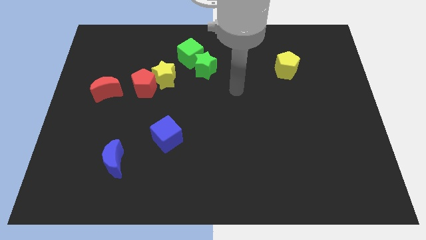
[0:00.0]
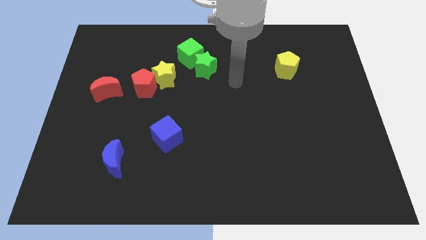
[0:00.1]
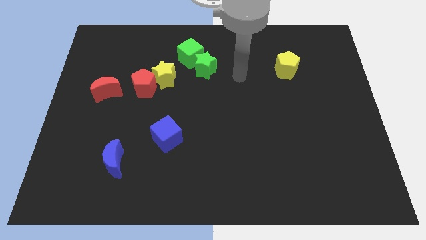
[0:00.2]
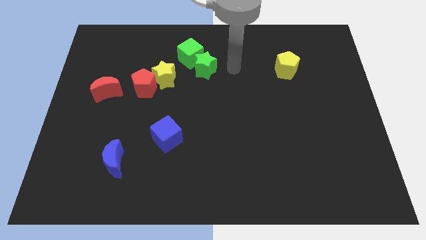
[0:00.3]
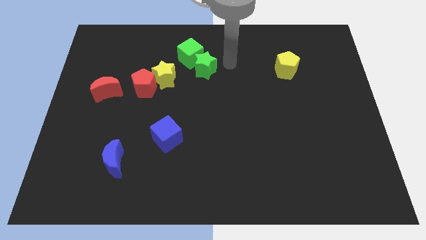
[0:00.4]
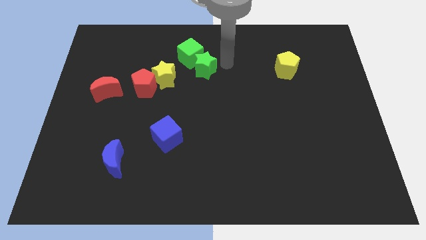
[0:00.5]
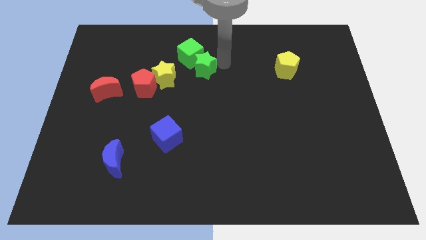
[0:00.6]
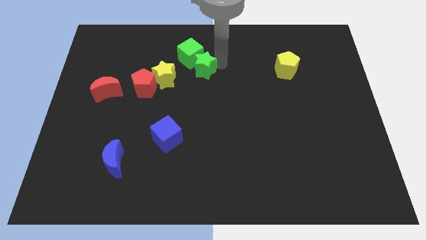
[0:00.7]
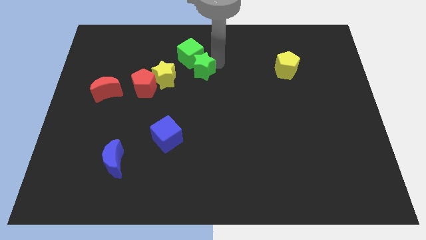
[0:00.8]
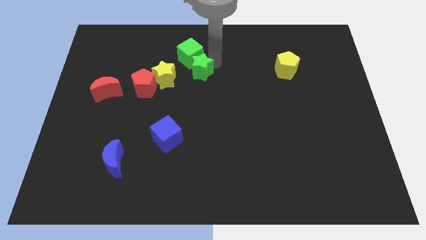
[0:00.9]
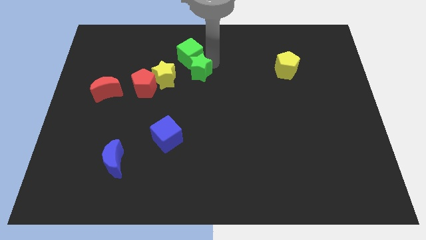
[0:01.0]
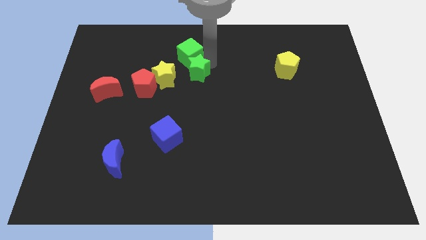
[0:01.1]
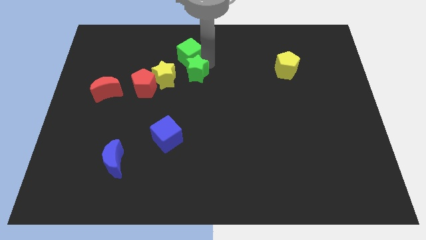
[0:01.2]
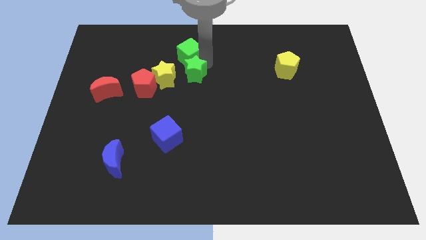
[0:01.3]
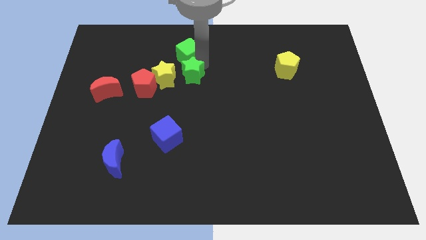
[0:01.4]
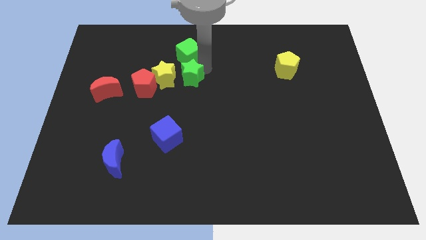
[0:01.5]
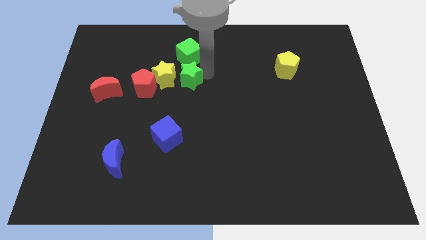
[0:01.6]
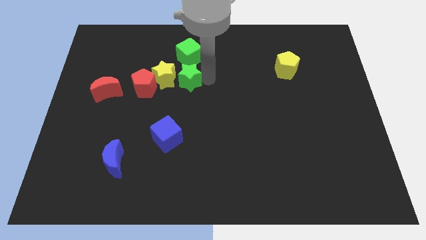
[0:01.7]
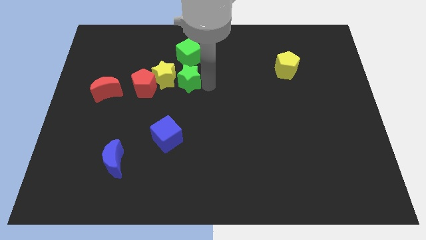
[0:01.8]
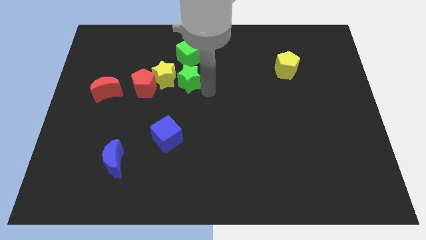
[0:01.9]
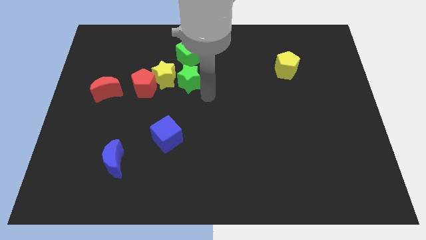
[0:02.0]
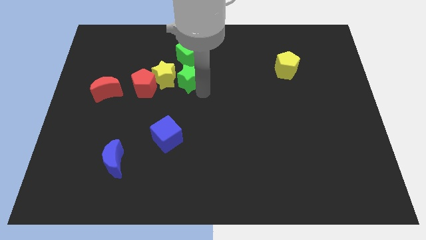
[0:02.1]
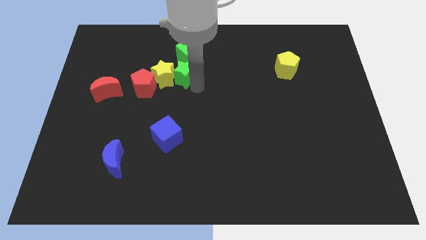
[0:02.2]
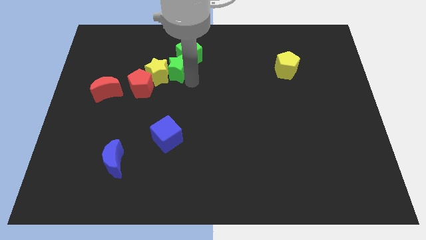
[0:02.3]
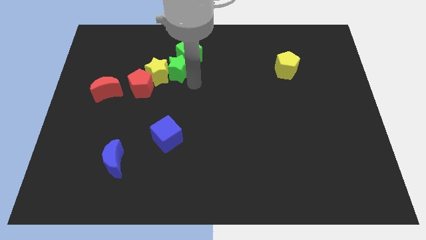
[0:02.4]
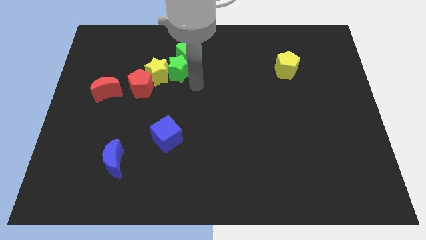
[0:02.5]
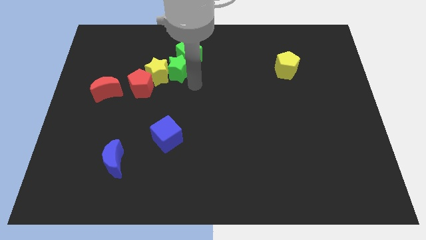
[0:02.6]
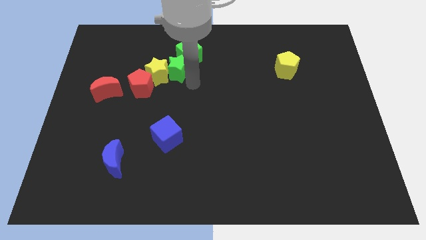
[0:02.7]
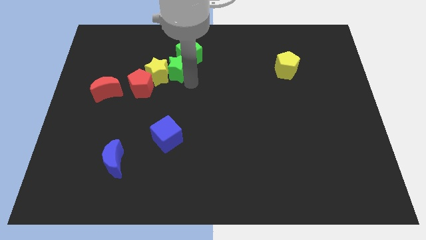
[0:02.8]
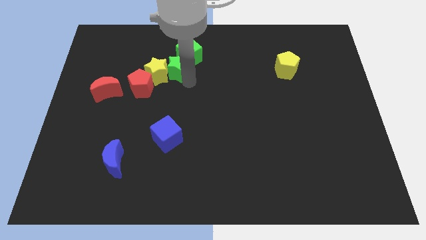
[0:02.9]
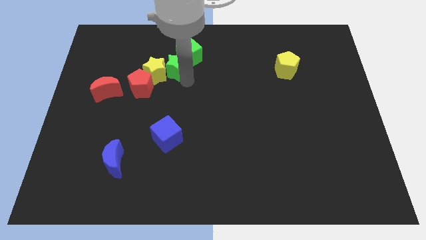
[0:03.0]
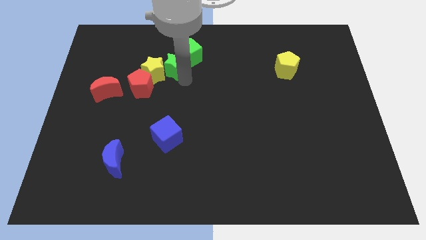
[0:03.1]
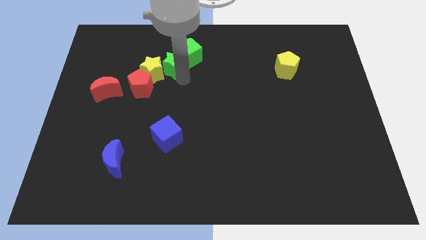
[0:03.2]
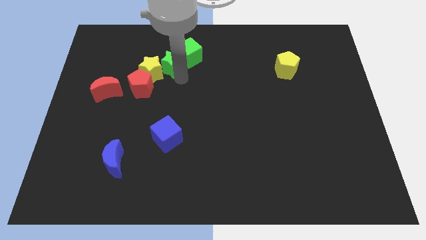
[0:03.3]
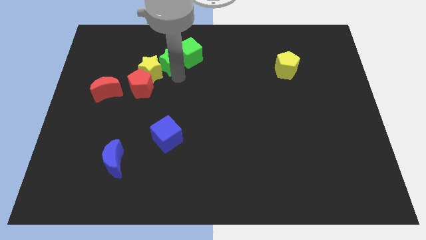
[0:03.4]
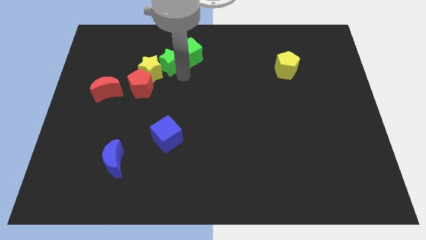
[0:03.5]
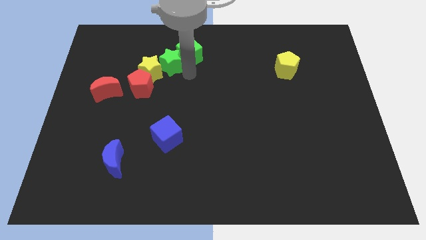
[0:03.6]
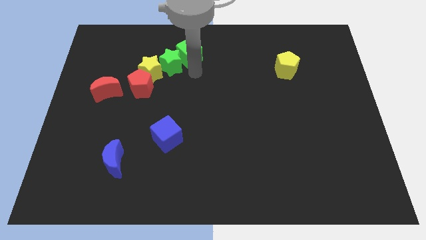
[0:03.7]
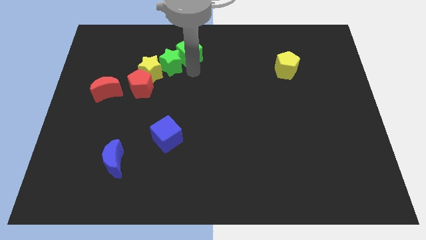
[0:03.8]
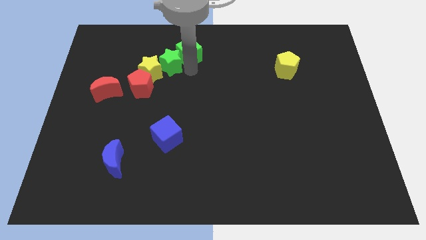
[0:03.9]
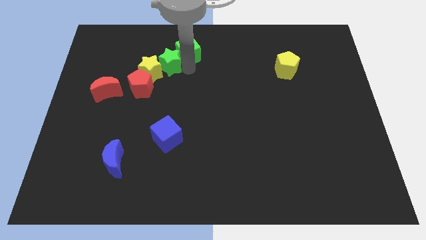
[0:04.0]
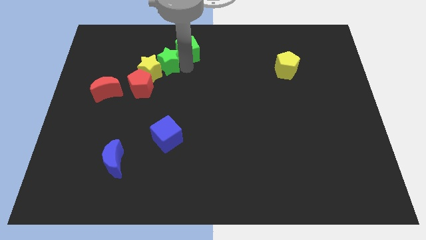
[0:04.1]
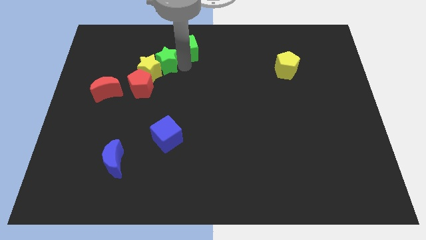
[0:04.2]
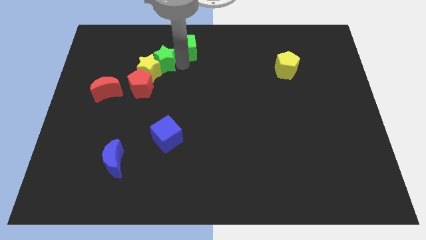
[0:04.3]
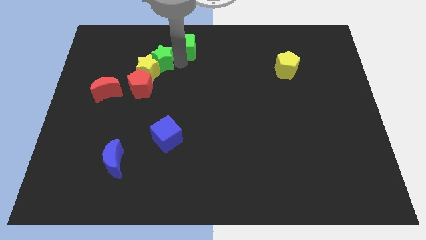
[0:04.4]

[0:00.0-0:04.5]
put the green star above the red pentagon

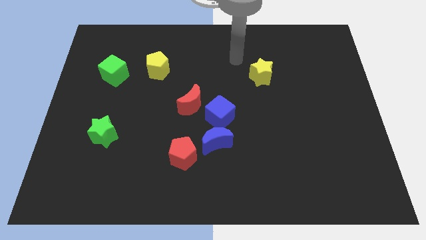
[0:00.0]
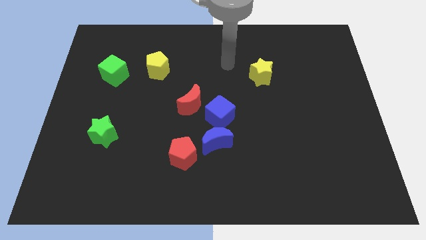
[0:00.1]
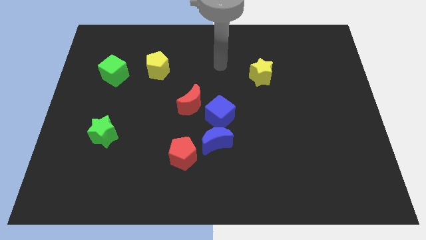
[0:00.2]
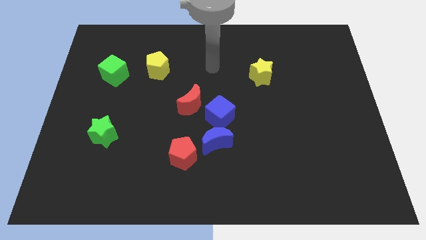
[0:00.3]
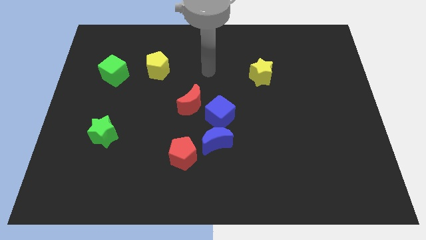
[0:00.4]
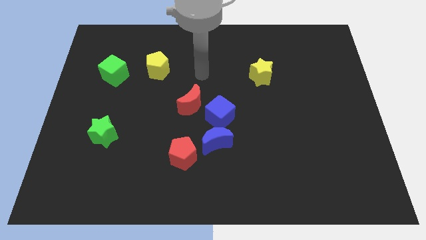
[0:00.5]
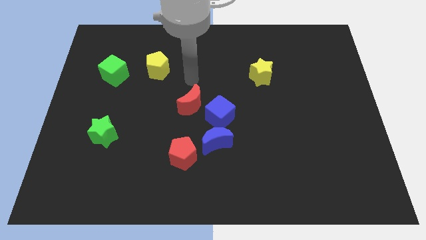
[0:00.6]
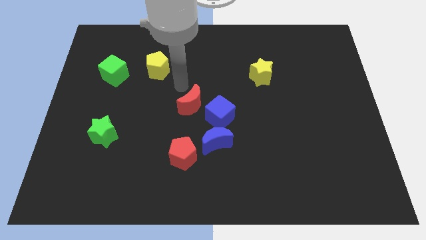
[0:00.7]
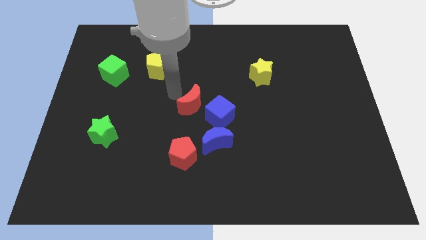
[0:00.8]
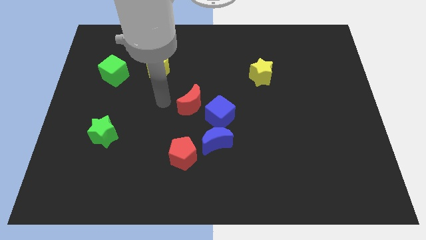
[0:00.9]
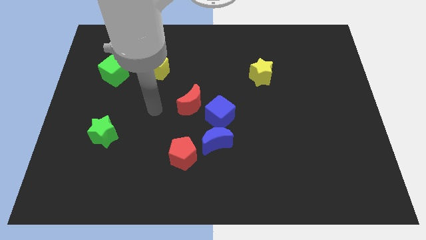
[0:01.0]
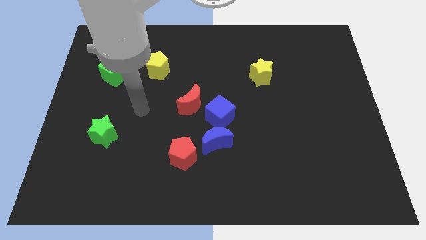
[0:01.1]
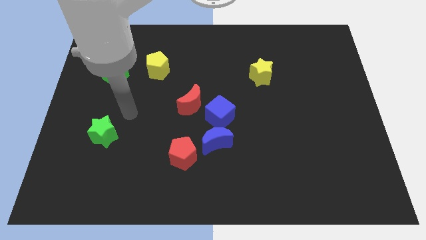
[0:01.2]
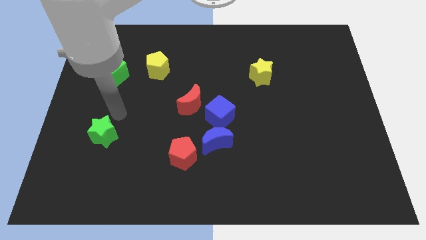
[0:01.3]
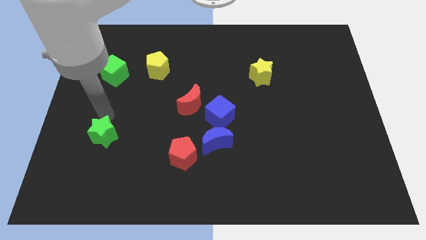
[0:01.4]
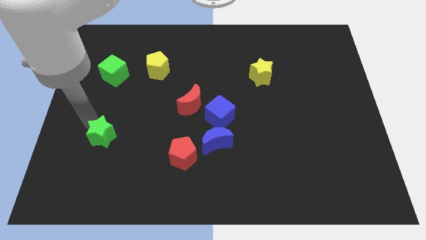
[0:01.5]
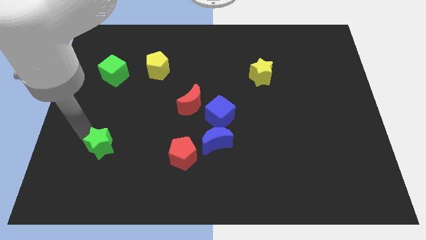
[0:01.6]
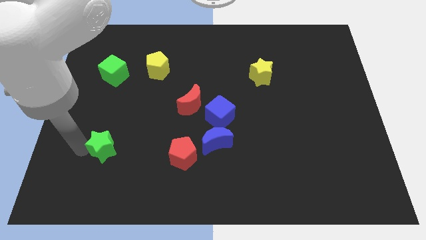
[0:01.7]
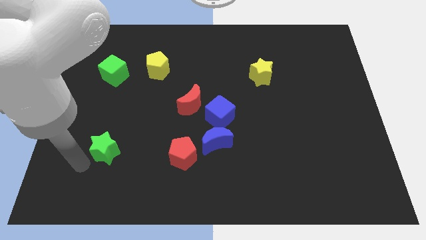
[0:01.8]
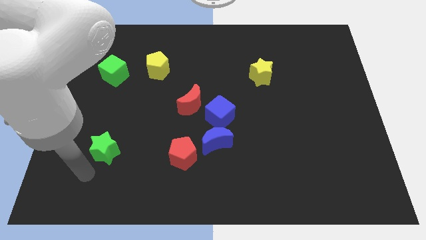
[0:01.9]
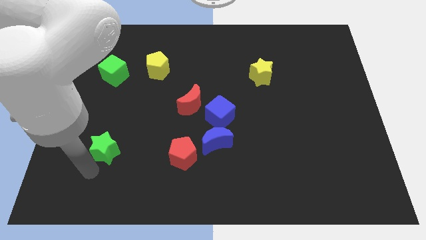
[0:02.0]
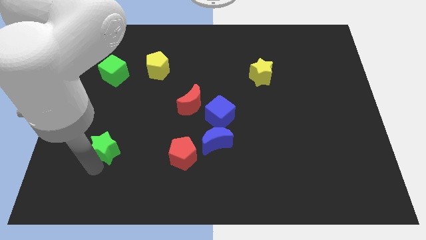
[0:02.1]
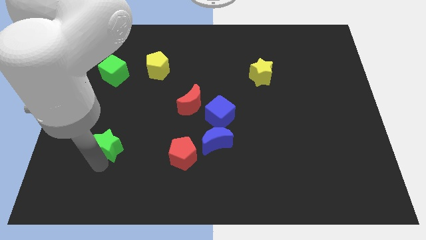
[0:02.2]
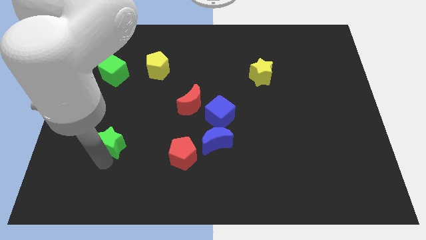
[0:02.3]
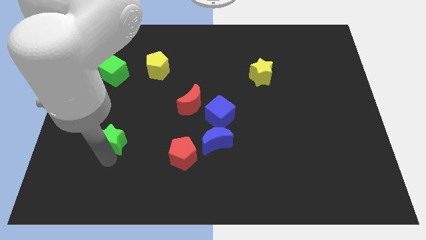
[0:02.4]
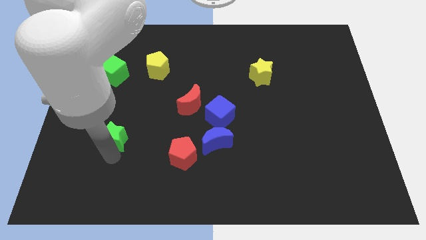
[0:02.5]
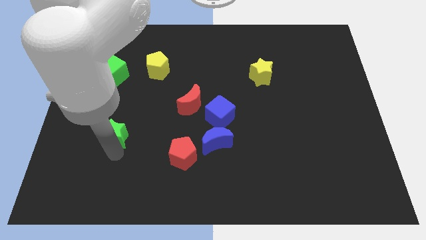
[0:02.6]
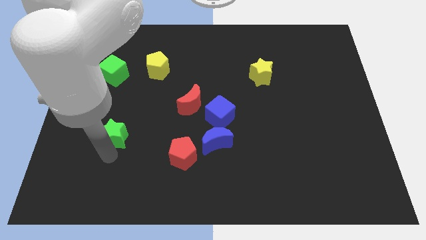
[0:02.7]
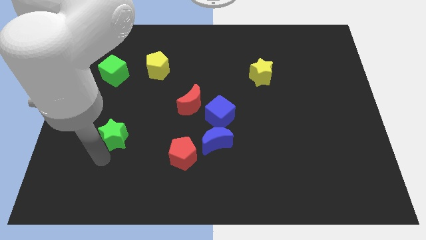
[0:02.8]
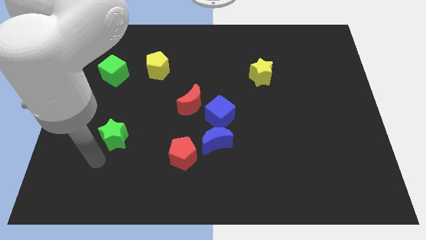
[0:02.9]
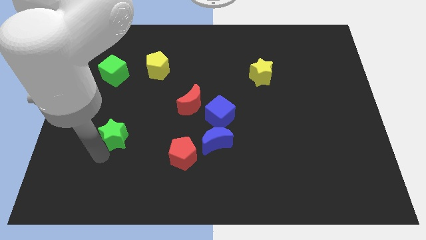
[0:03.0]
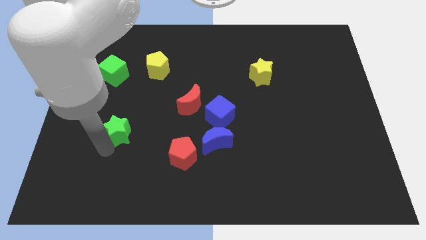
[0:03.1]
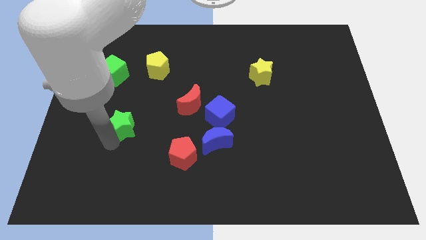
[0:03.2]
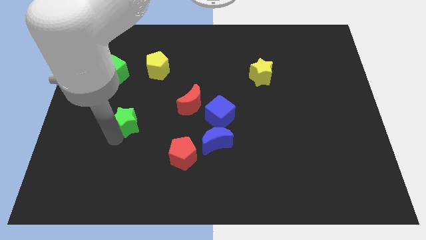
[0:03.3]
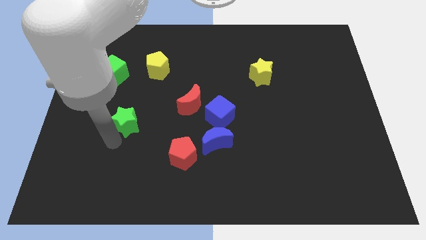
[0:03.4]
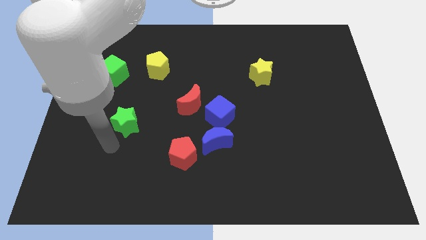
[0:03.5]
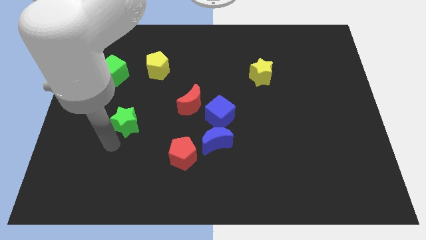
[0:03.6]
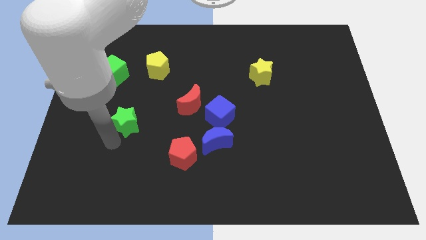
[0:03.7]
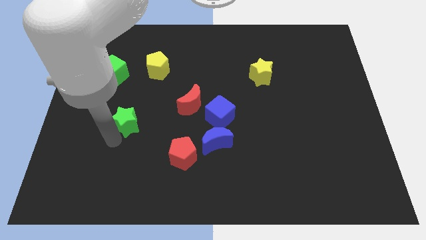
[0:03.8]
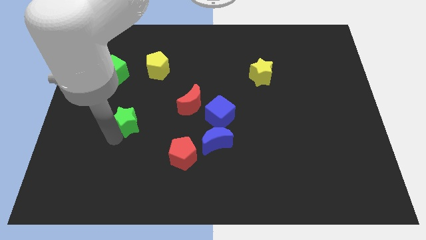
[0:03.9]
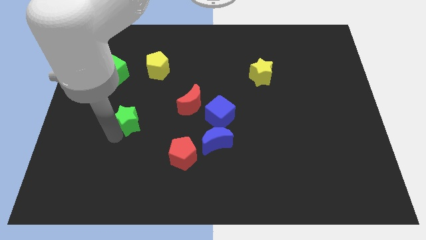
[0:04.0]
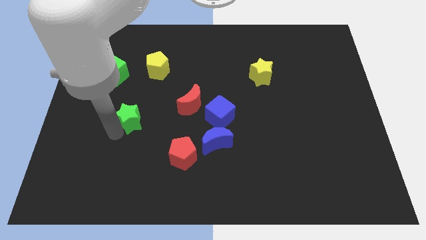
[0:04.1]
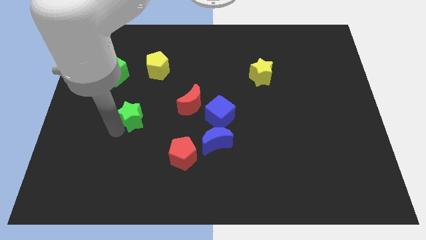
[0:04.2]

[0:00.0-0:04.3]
put the green star to the left of the red moon
